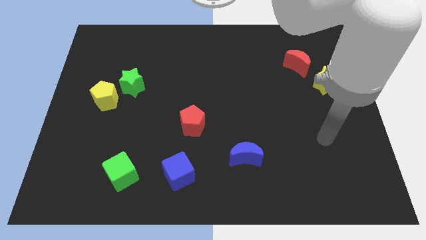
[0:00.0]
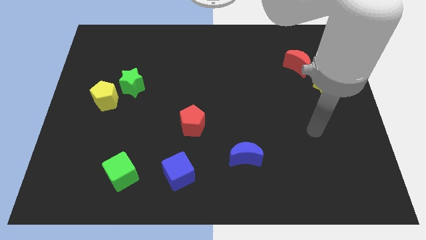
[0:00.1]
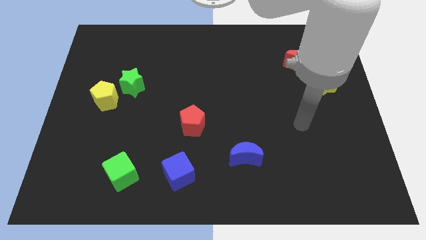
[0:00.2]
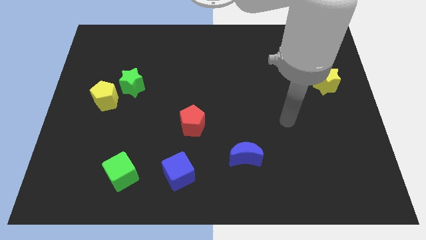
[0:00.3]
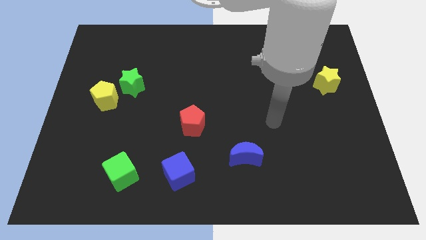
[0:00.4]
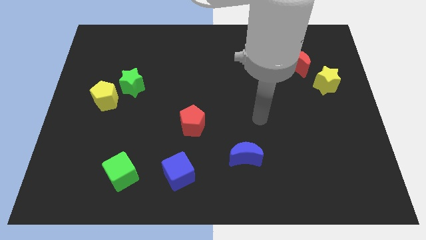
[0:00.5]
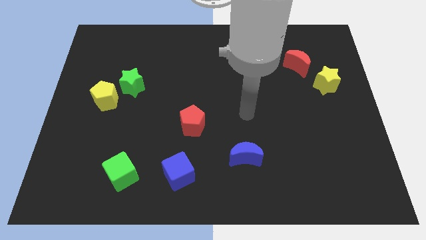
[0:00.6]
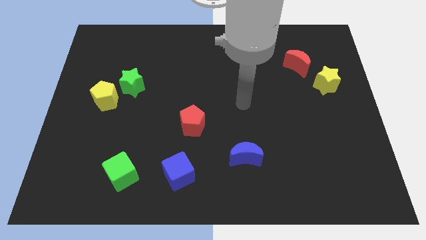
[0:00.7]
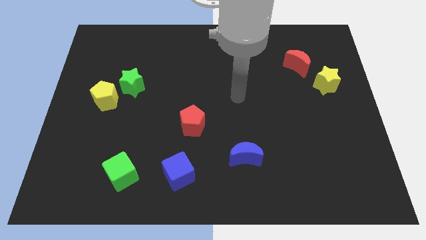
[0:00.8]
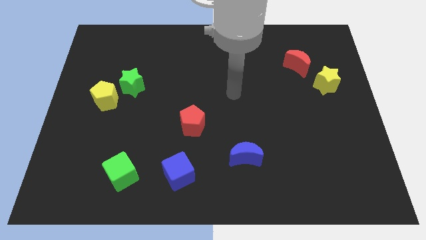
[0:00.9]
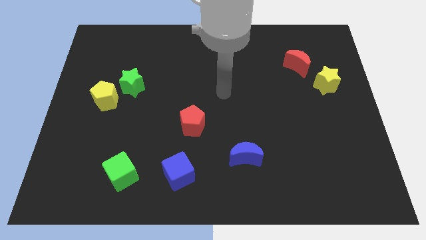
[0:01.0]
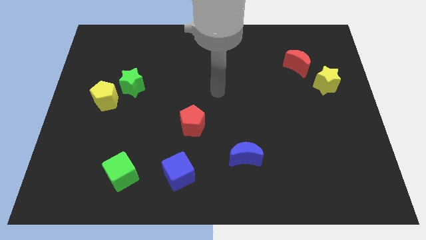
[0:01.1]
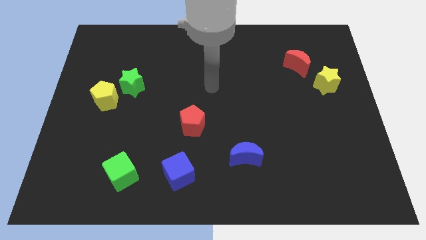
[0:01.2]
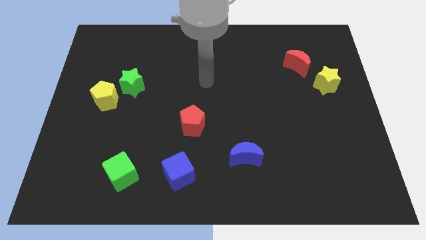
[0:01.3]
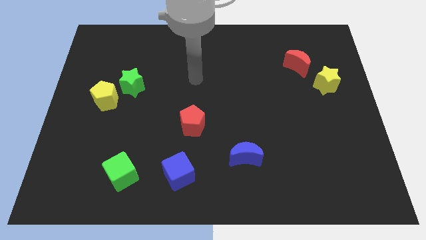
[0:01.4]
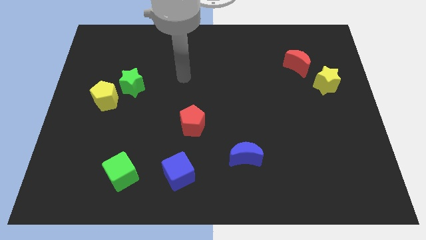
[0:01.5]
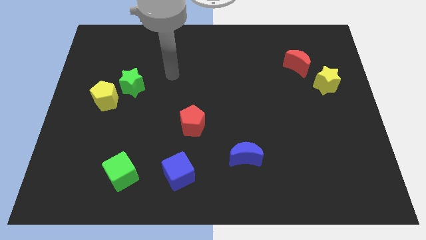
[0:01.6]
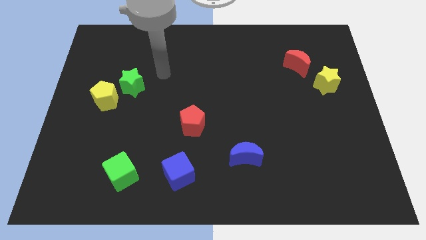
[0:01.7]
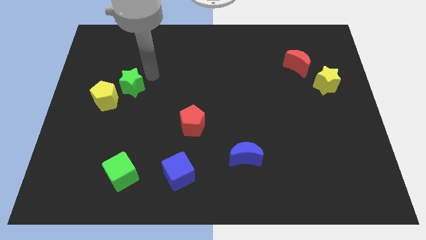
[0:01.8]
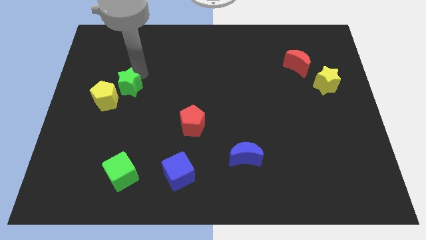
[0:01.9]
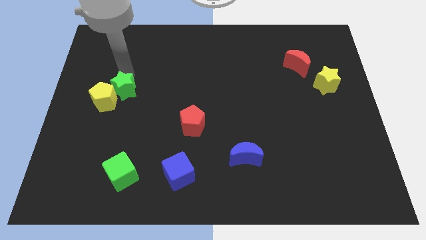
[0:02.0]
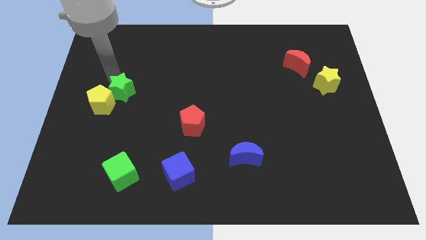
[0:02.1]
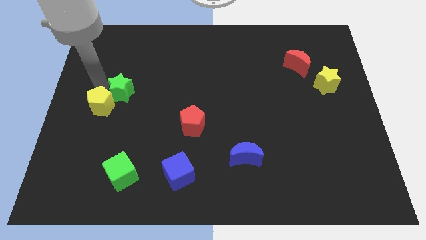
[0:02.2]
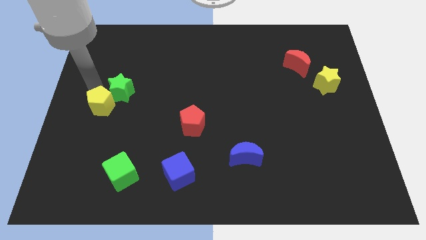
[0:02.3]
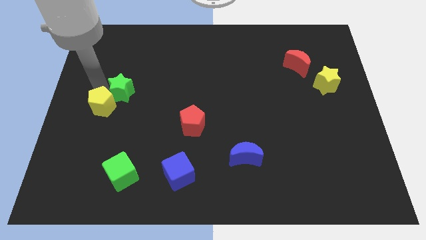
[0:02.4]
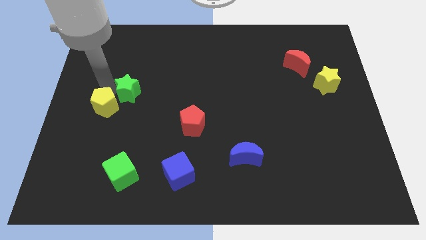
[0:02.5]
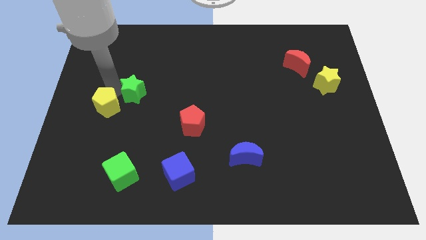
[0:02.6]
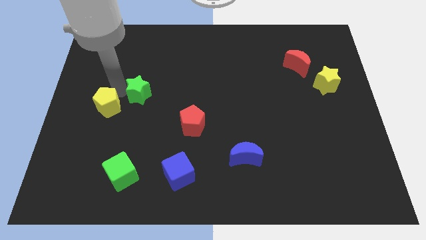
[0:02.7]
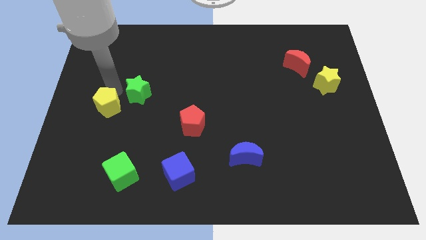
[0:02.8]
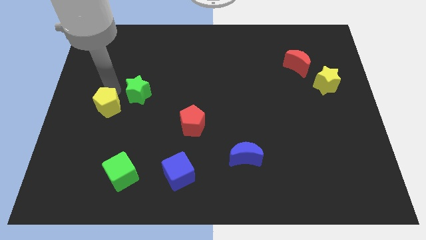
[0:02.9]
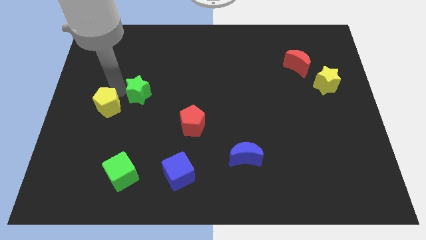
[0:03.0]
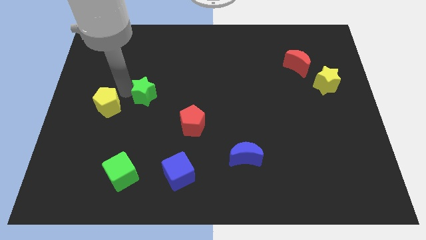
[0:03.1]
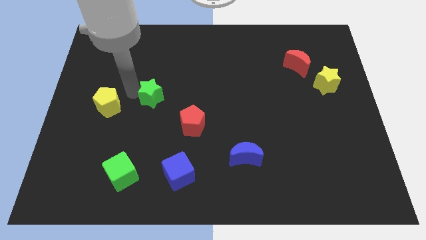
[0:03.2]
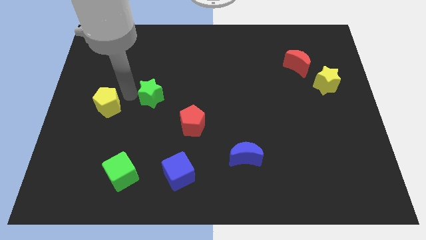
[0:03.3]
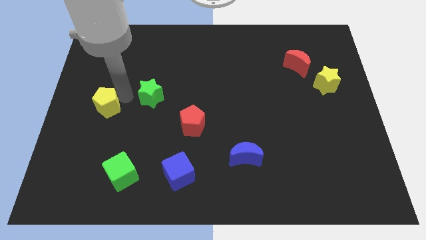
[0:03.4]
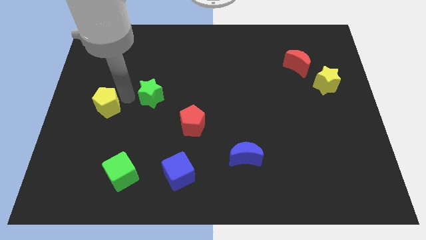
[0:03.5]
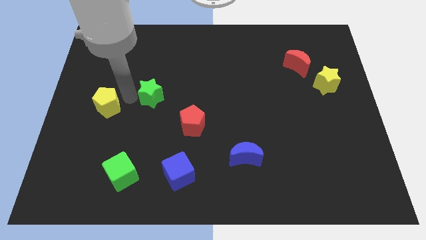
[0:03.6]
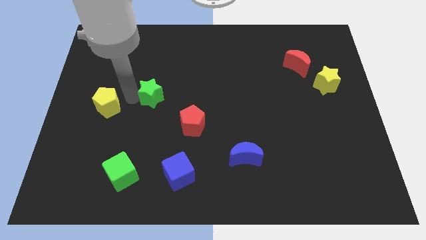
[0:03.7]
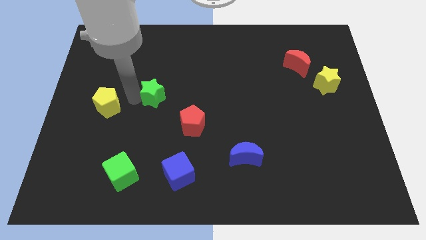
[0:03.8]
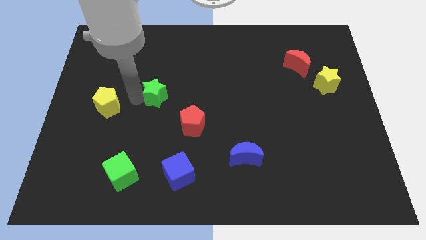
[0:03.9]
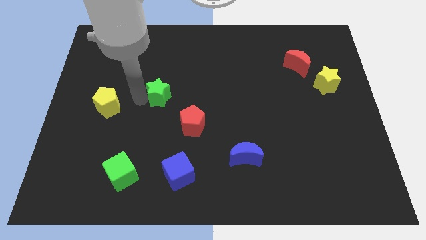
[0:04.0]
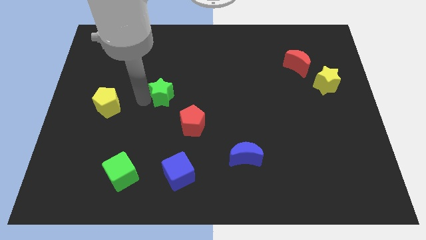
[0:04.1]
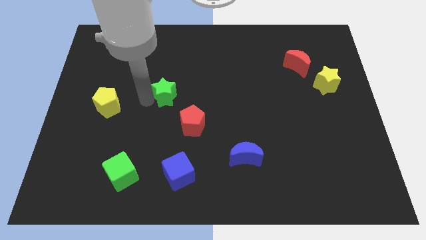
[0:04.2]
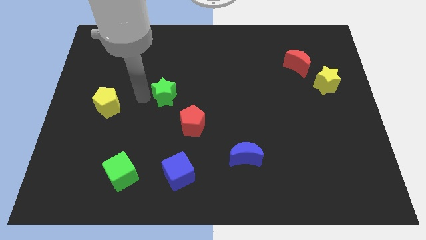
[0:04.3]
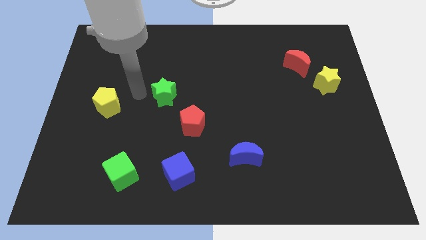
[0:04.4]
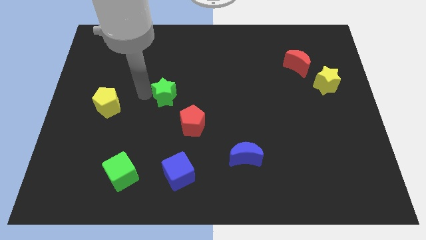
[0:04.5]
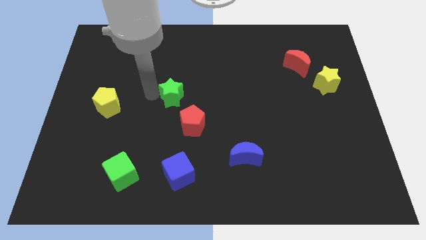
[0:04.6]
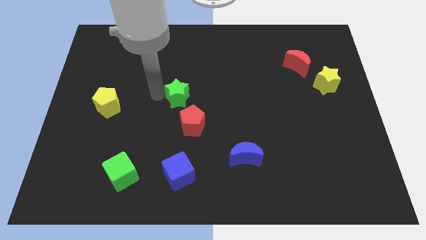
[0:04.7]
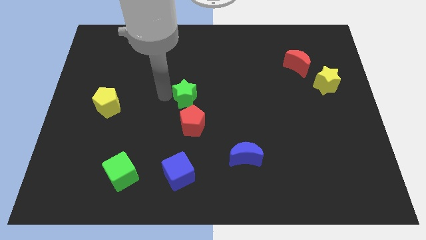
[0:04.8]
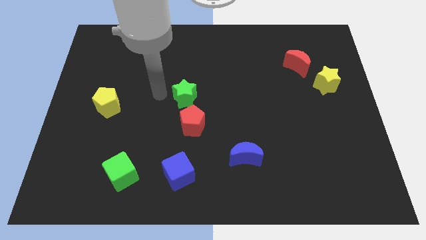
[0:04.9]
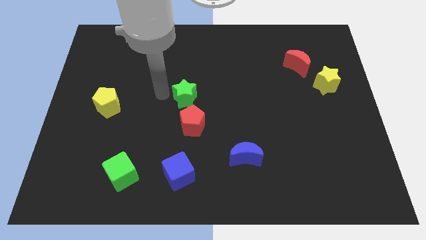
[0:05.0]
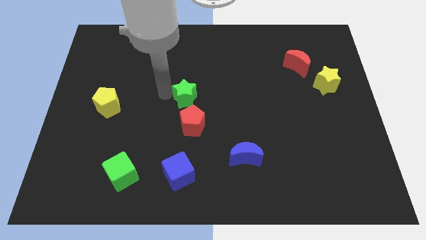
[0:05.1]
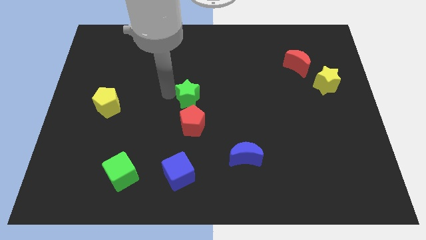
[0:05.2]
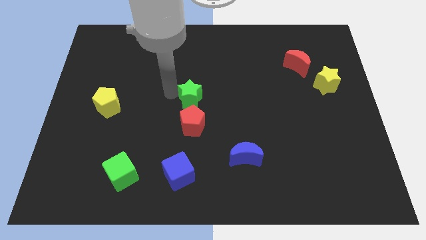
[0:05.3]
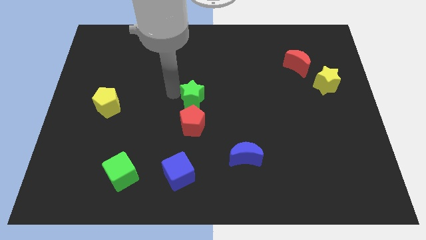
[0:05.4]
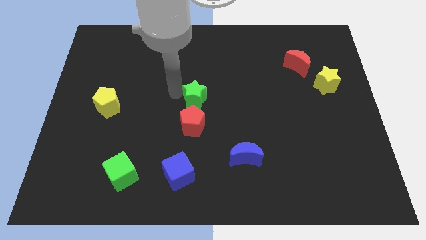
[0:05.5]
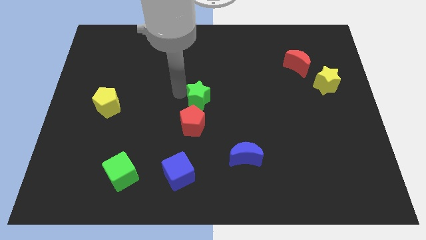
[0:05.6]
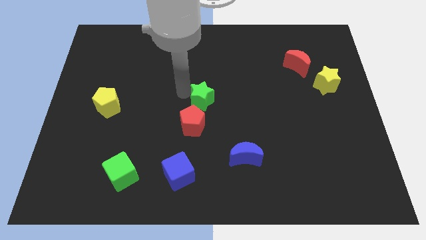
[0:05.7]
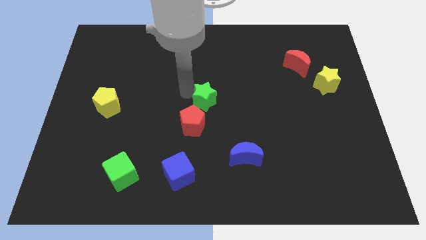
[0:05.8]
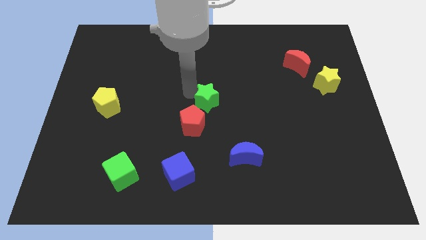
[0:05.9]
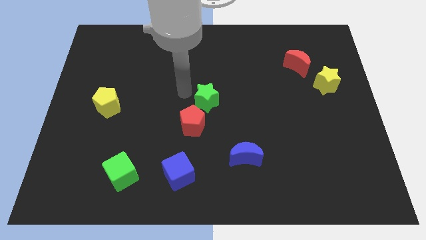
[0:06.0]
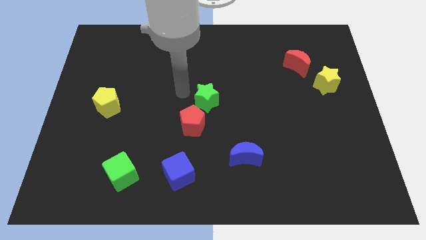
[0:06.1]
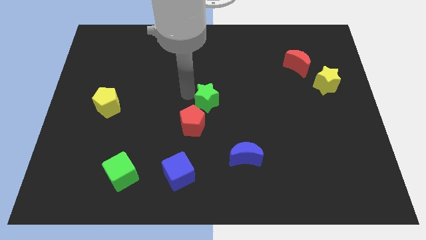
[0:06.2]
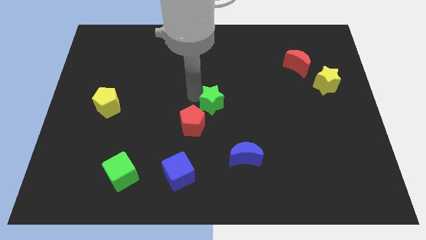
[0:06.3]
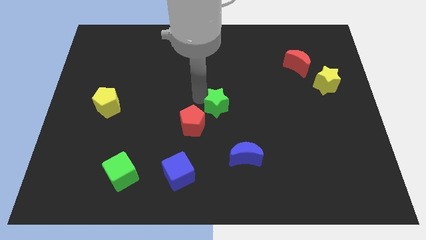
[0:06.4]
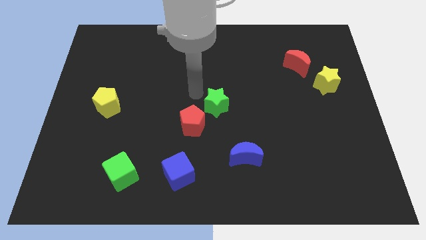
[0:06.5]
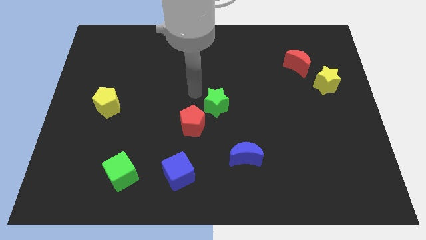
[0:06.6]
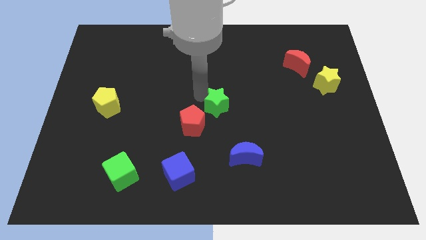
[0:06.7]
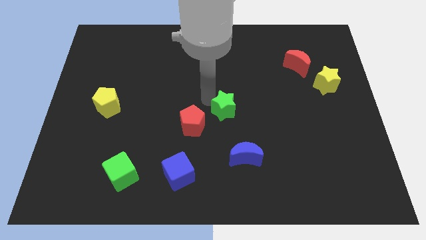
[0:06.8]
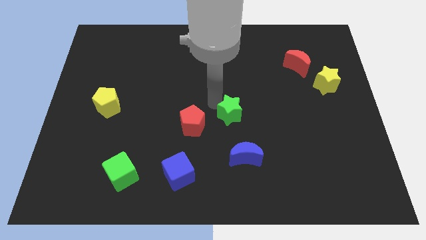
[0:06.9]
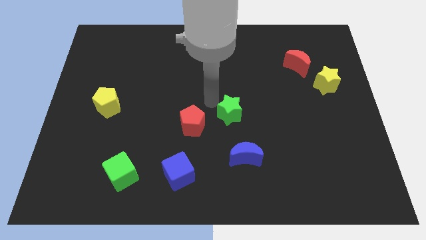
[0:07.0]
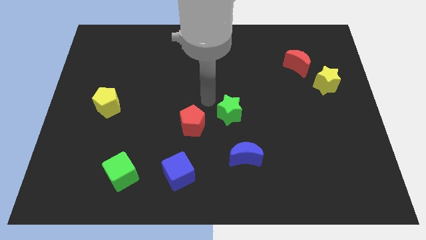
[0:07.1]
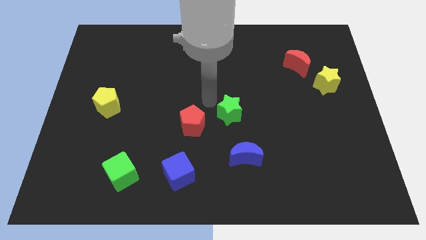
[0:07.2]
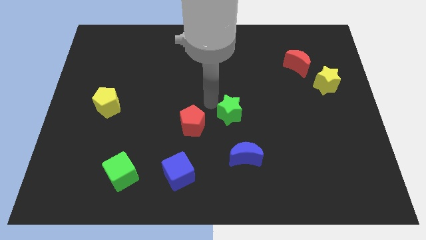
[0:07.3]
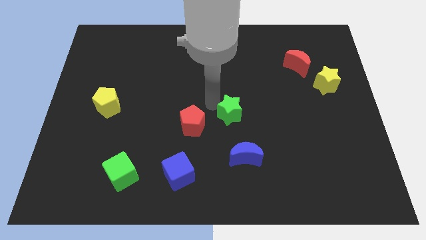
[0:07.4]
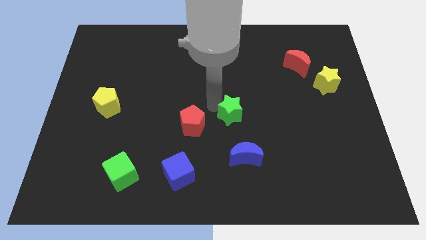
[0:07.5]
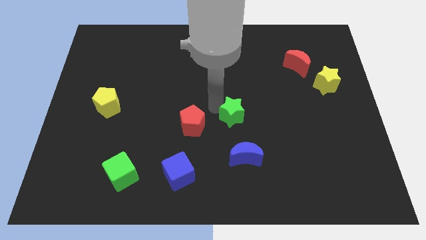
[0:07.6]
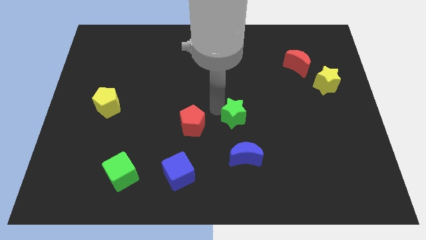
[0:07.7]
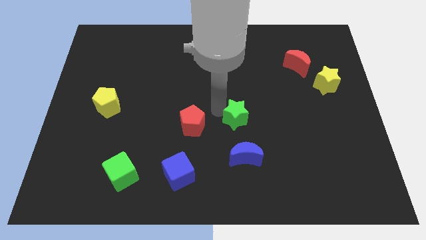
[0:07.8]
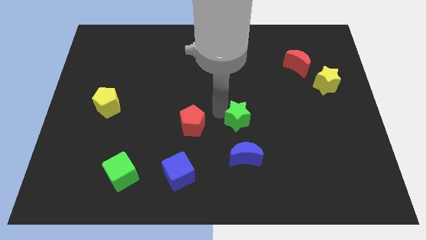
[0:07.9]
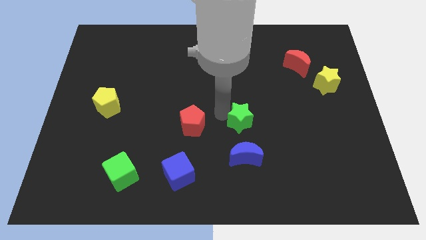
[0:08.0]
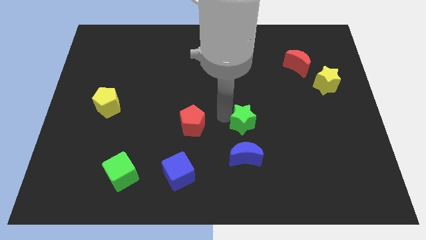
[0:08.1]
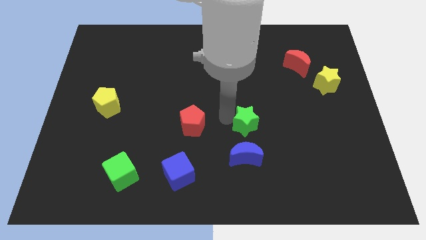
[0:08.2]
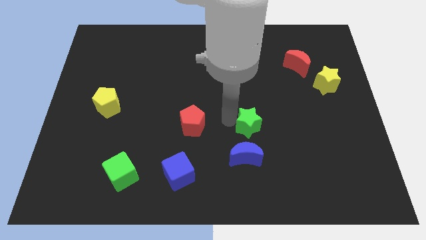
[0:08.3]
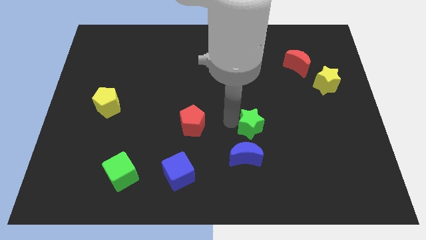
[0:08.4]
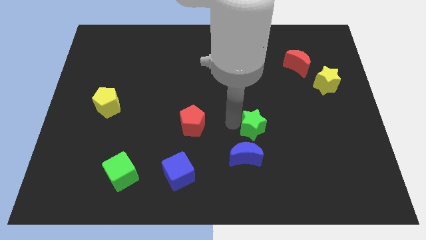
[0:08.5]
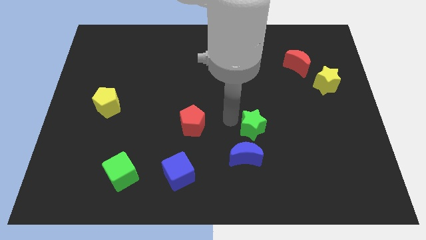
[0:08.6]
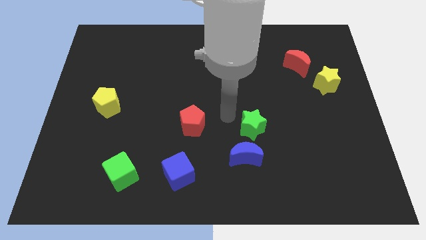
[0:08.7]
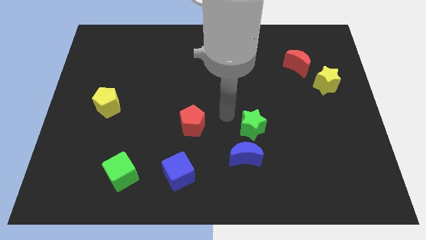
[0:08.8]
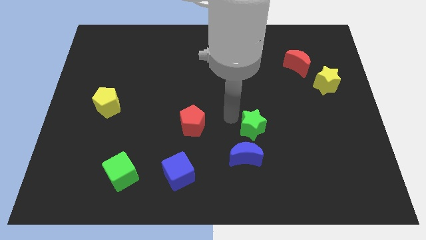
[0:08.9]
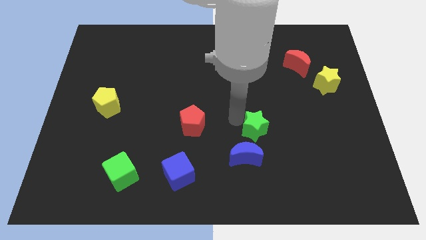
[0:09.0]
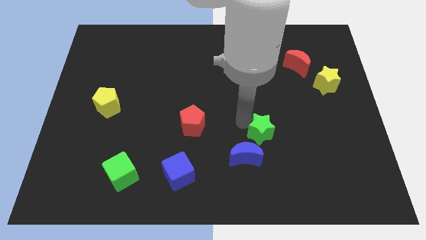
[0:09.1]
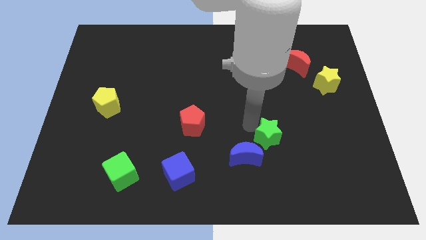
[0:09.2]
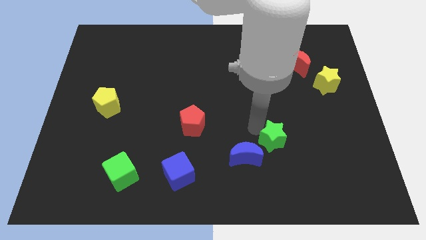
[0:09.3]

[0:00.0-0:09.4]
move the green star to the right side of the blue moon
